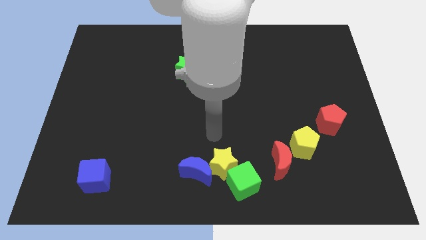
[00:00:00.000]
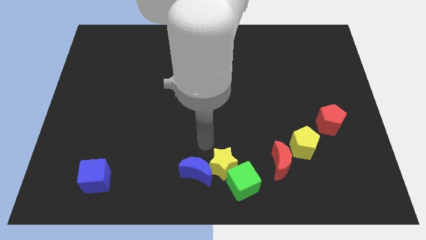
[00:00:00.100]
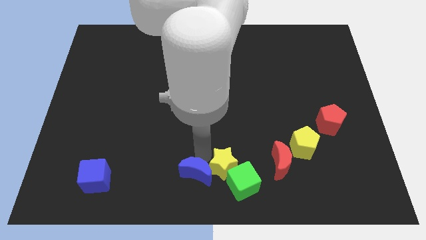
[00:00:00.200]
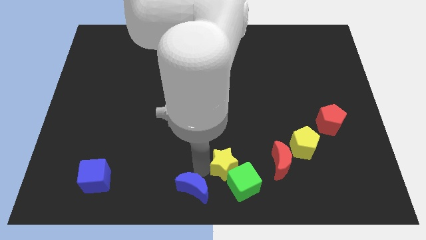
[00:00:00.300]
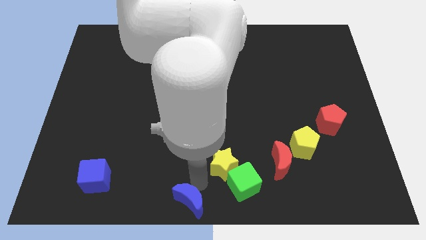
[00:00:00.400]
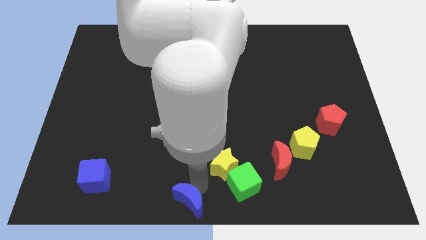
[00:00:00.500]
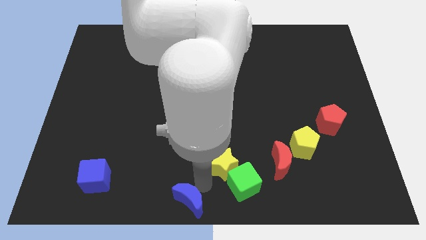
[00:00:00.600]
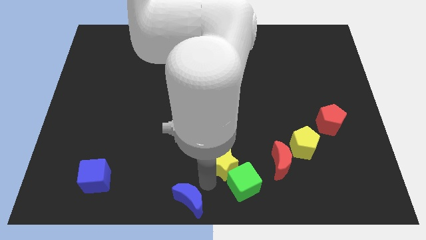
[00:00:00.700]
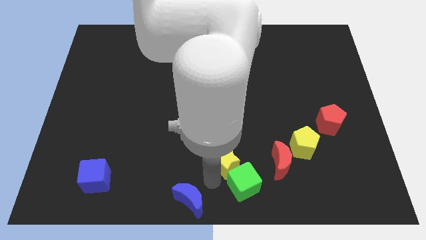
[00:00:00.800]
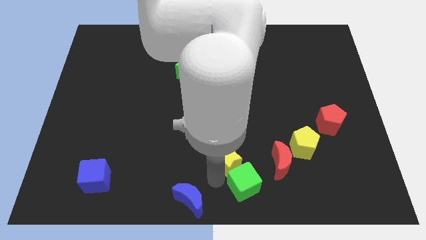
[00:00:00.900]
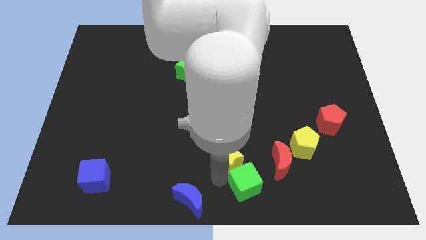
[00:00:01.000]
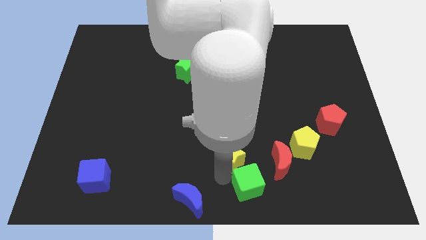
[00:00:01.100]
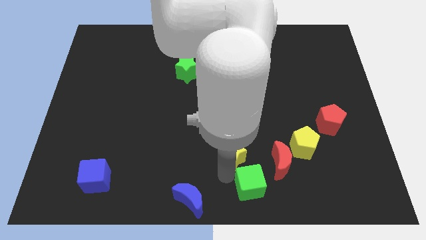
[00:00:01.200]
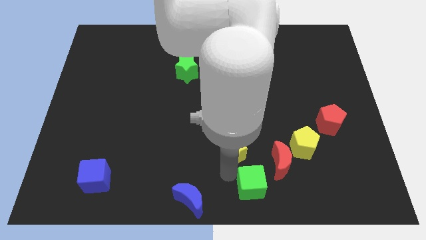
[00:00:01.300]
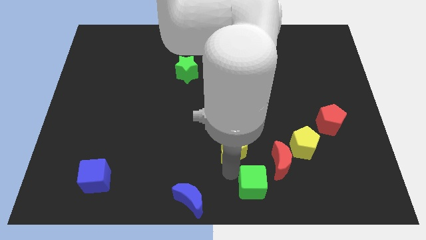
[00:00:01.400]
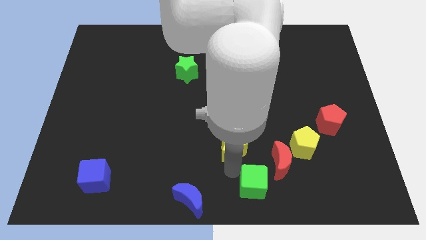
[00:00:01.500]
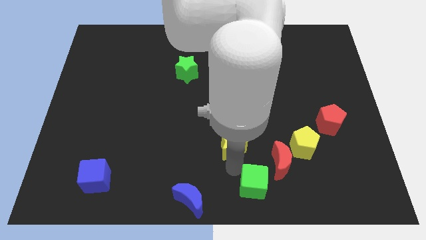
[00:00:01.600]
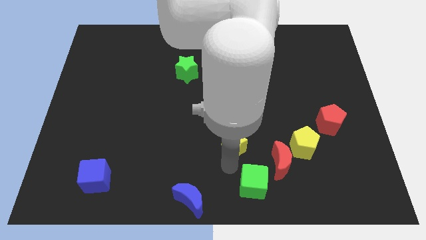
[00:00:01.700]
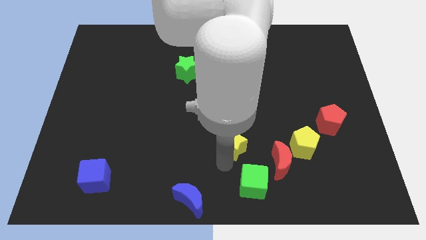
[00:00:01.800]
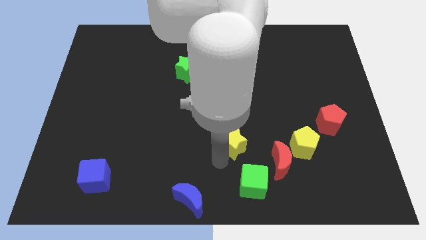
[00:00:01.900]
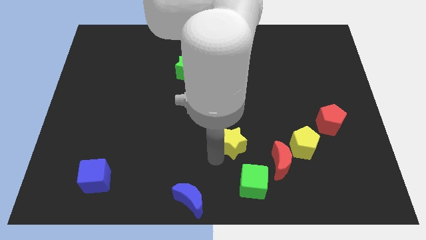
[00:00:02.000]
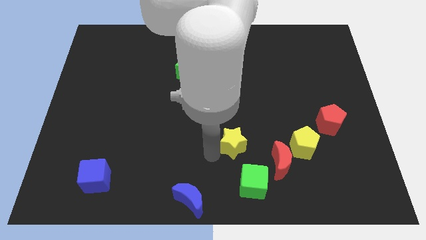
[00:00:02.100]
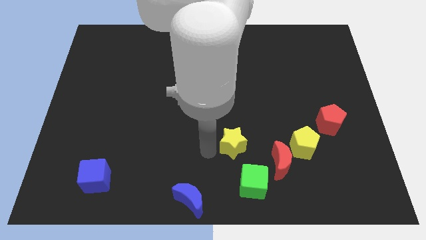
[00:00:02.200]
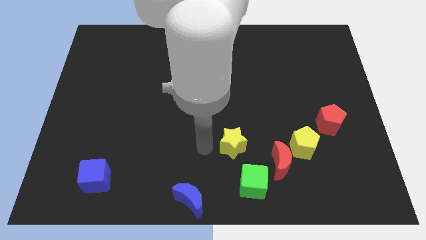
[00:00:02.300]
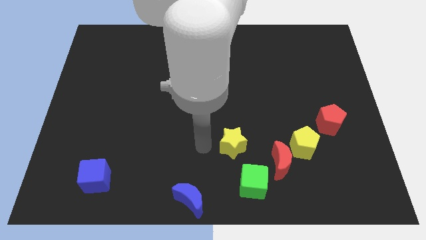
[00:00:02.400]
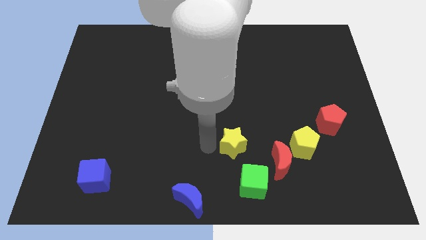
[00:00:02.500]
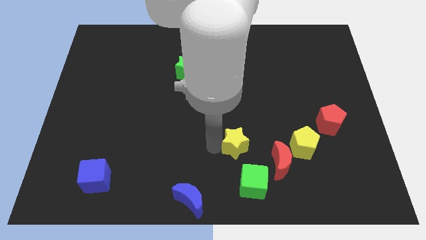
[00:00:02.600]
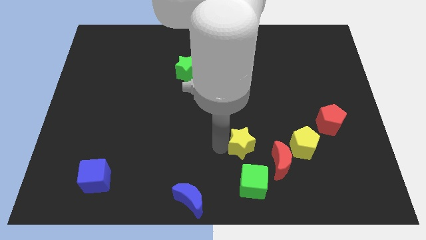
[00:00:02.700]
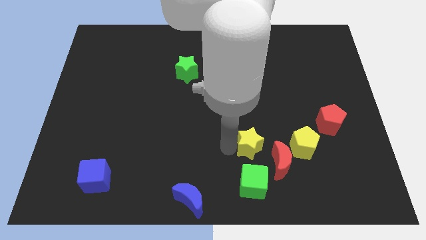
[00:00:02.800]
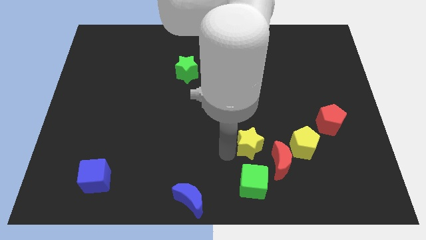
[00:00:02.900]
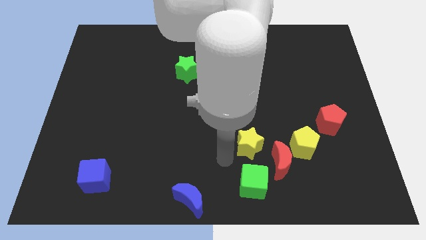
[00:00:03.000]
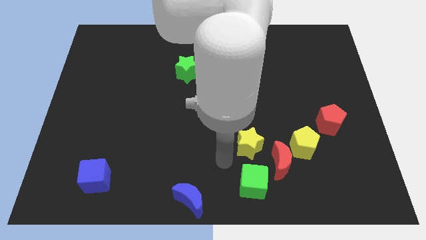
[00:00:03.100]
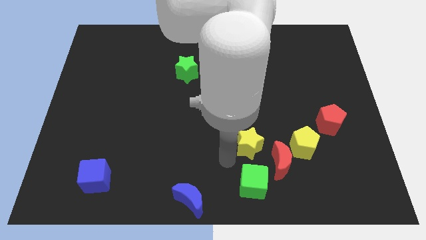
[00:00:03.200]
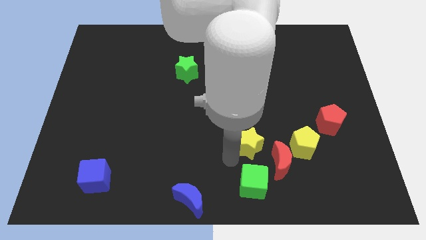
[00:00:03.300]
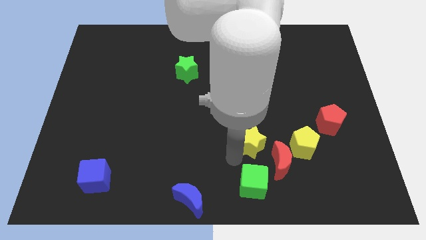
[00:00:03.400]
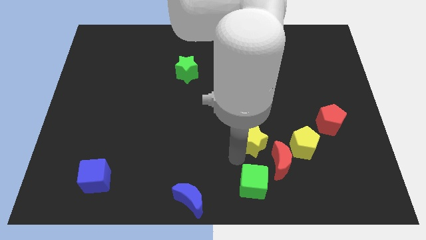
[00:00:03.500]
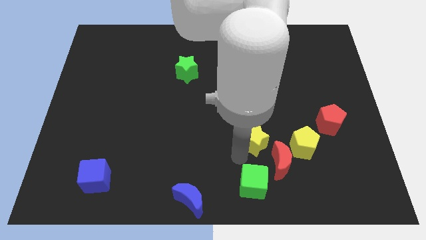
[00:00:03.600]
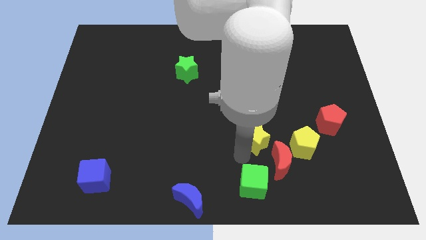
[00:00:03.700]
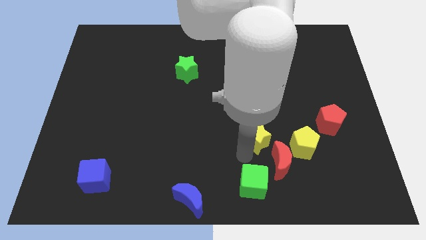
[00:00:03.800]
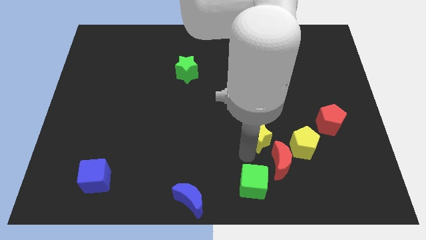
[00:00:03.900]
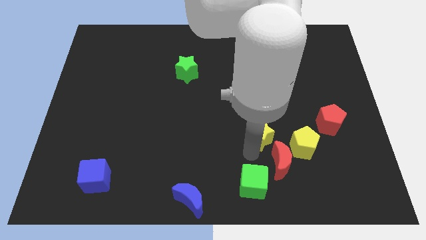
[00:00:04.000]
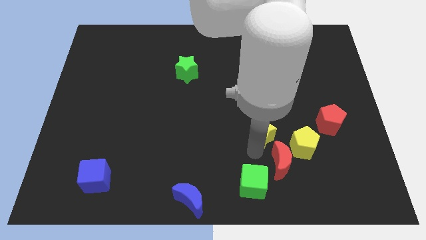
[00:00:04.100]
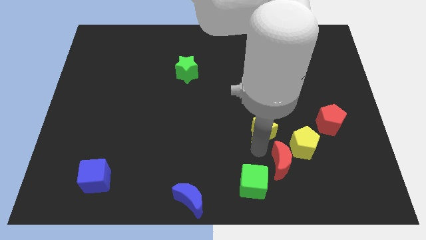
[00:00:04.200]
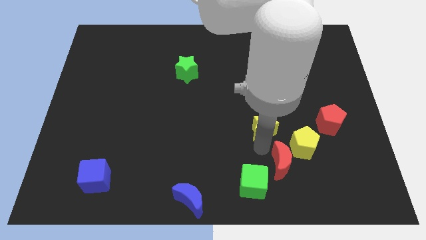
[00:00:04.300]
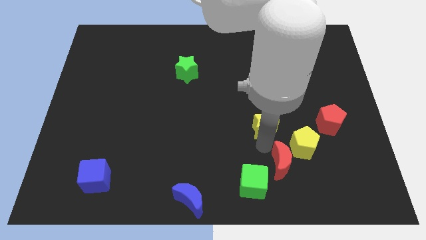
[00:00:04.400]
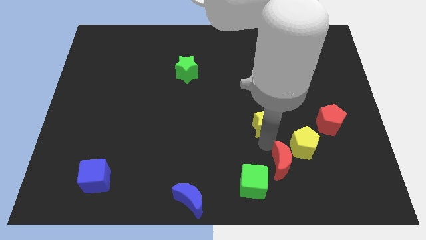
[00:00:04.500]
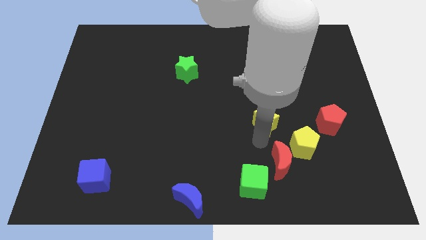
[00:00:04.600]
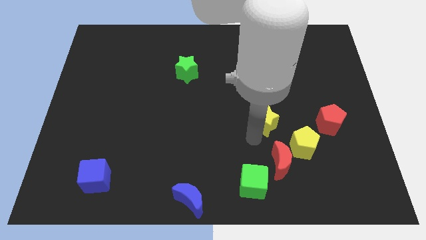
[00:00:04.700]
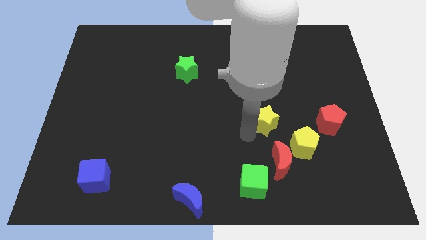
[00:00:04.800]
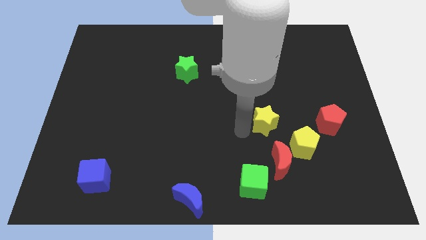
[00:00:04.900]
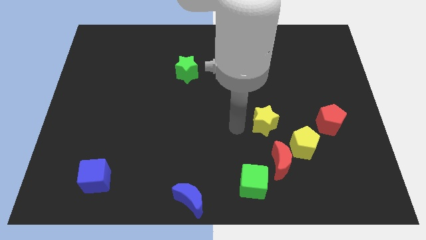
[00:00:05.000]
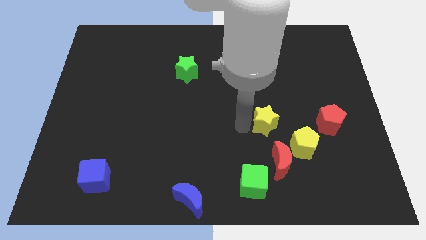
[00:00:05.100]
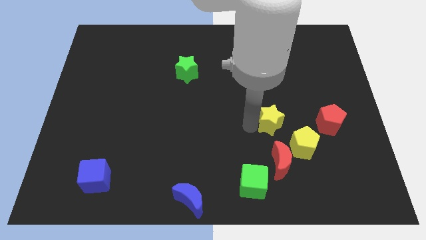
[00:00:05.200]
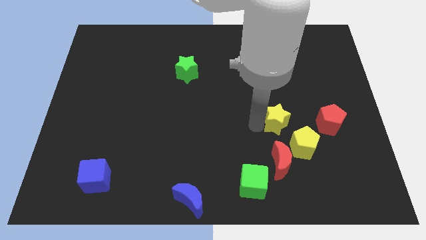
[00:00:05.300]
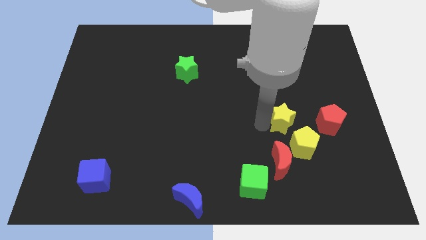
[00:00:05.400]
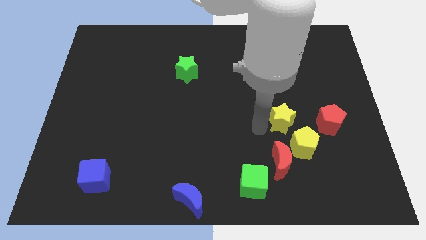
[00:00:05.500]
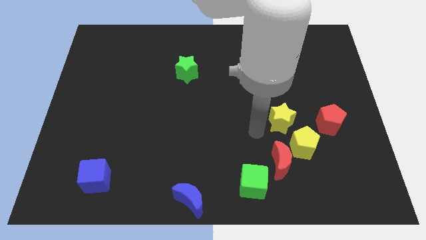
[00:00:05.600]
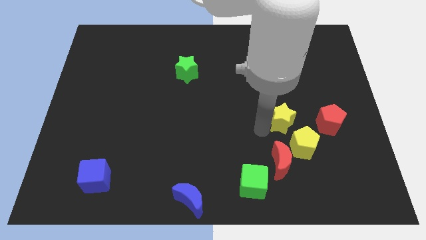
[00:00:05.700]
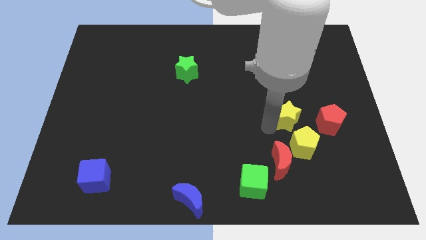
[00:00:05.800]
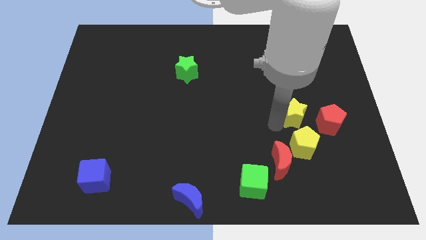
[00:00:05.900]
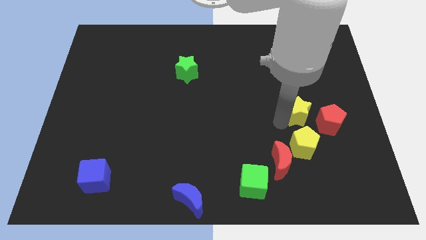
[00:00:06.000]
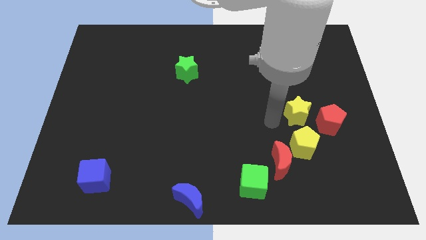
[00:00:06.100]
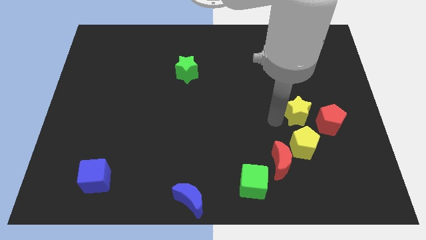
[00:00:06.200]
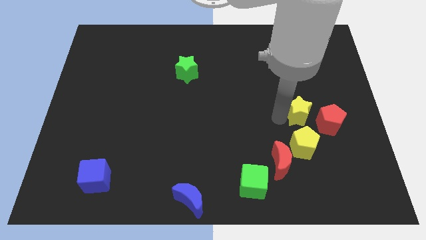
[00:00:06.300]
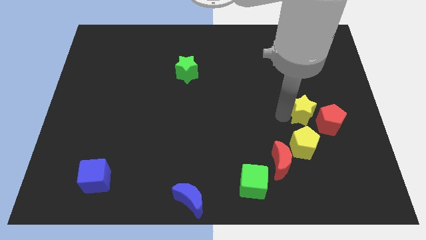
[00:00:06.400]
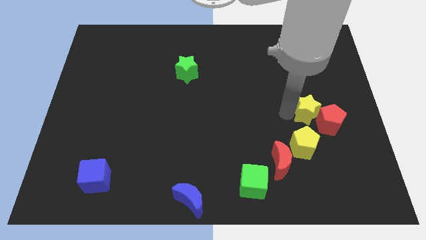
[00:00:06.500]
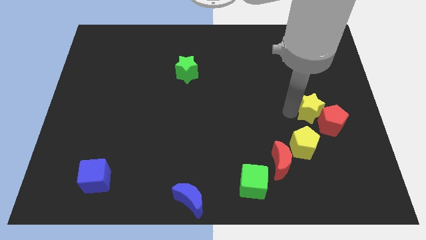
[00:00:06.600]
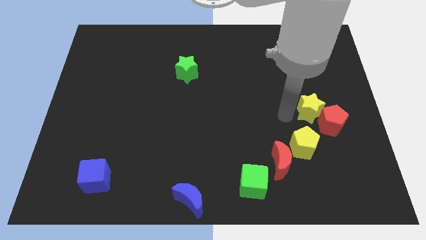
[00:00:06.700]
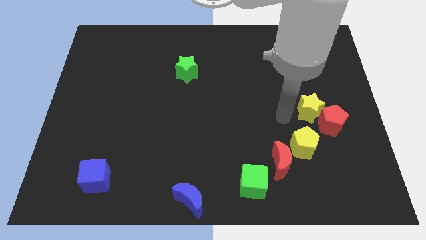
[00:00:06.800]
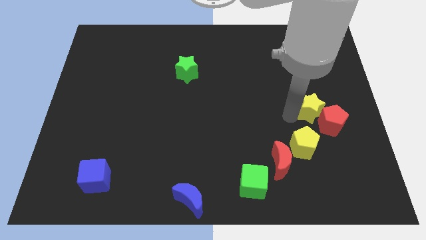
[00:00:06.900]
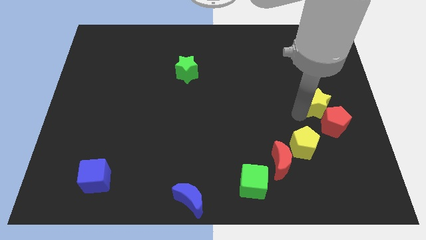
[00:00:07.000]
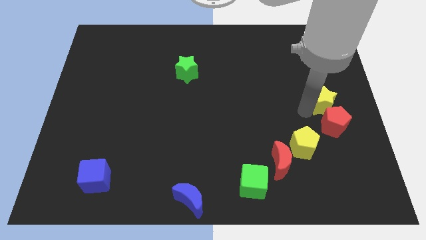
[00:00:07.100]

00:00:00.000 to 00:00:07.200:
put the yellow star to the right side of the board
